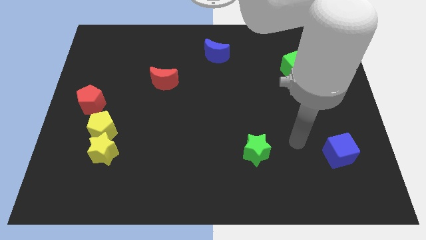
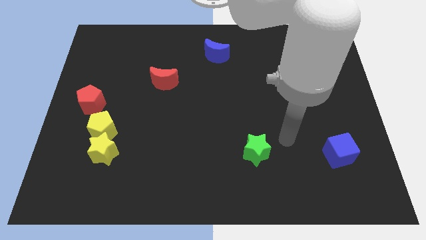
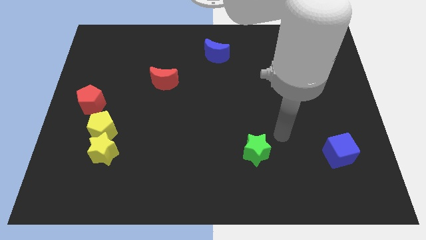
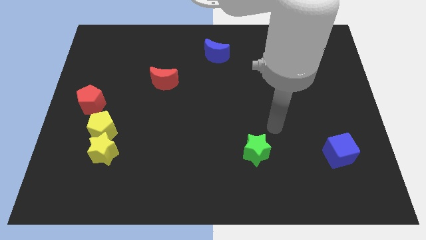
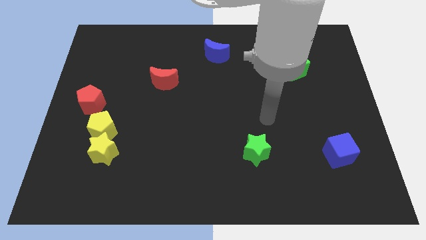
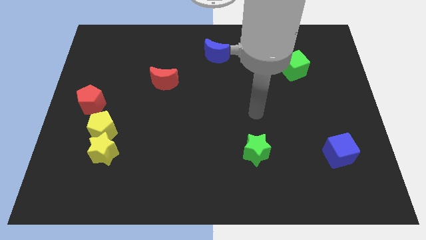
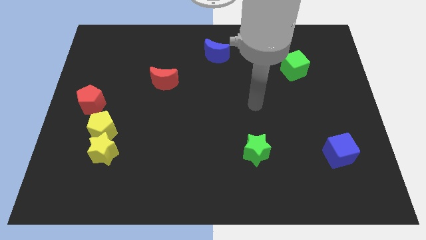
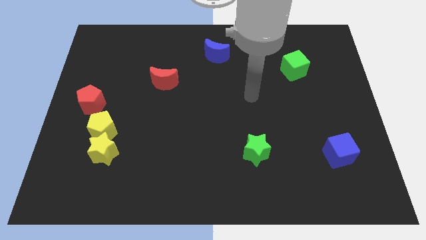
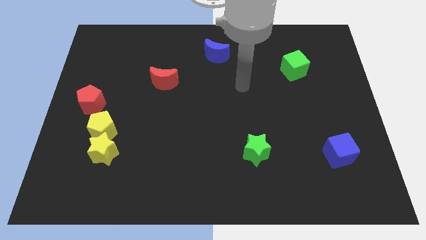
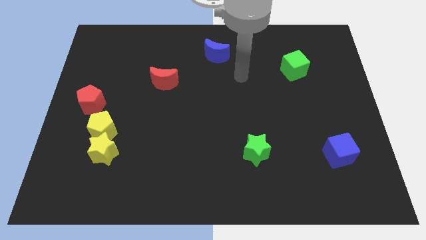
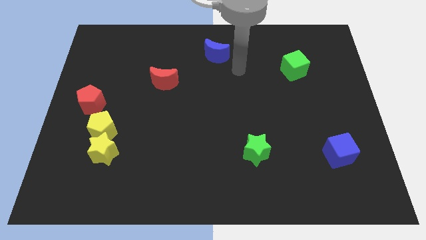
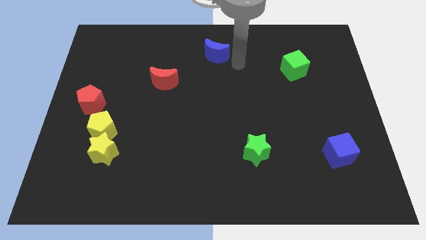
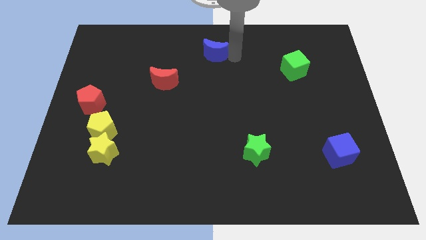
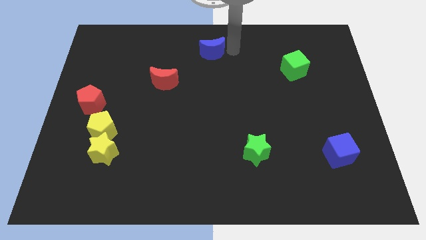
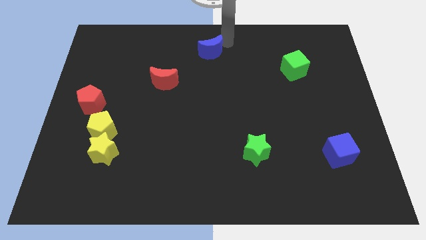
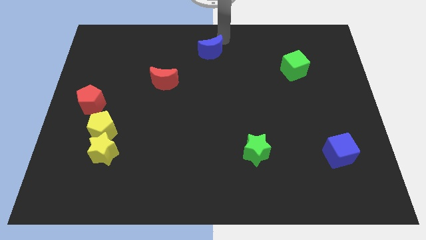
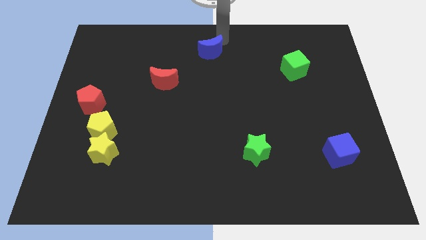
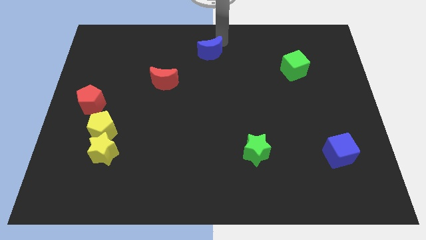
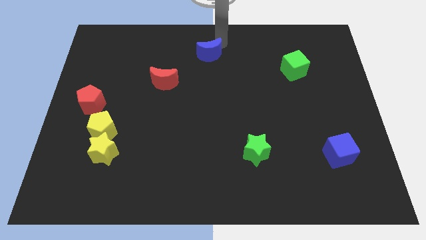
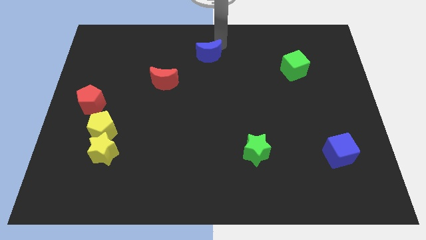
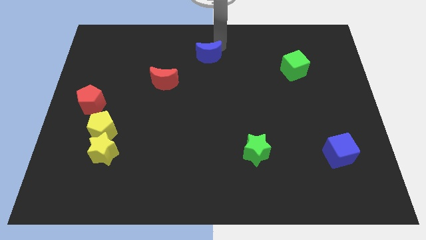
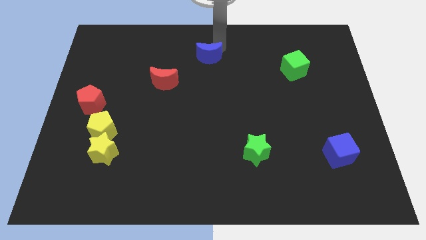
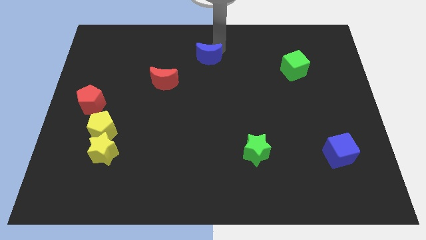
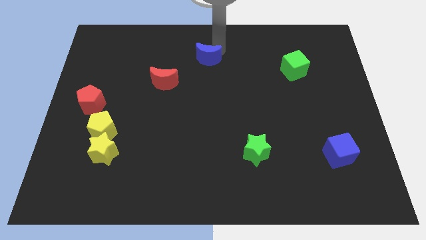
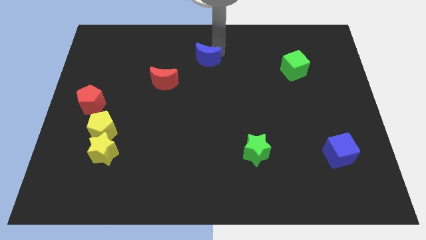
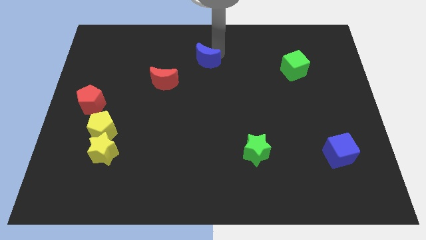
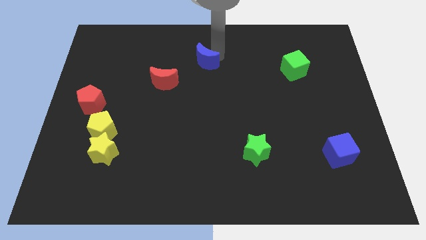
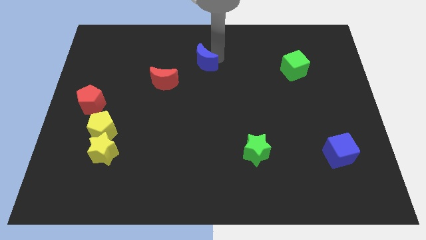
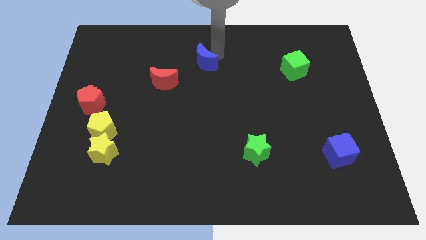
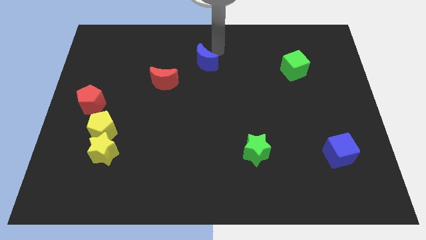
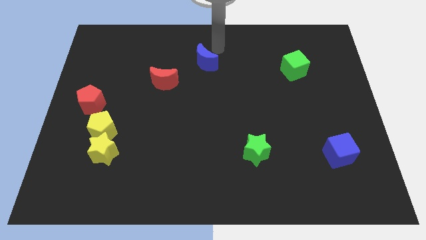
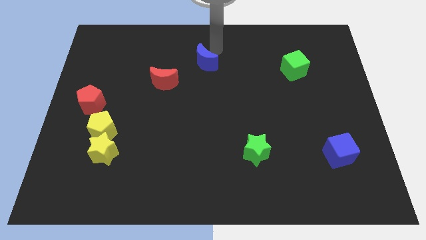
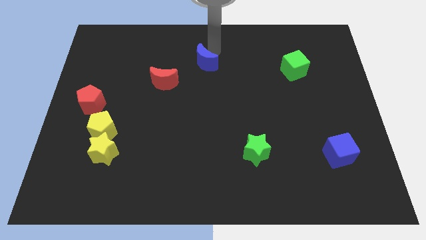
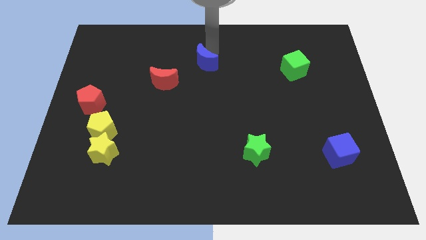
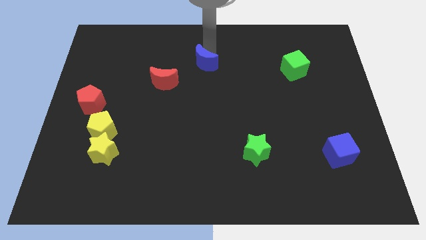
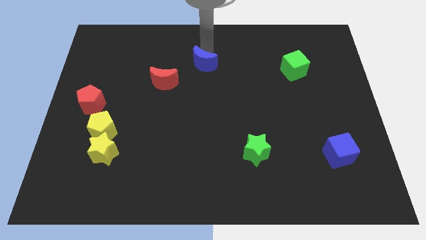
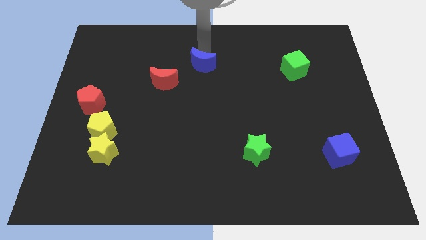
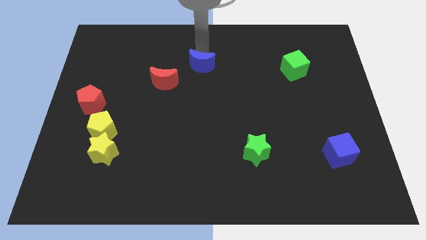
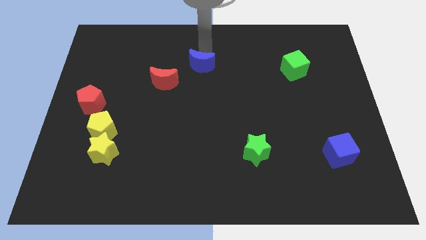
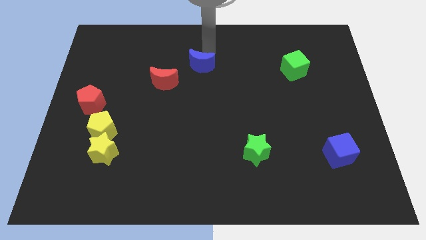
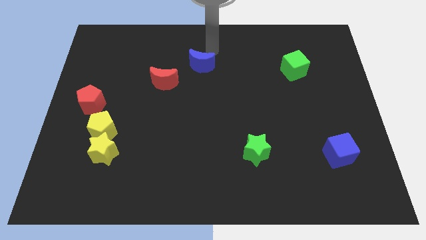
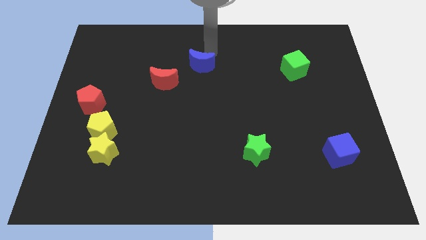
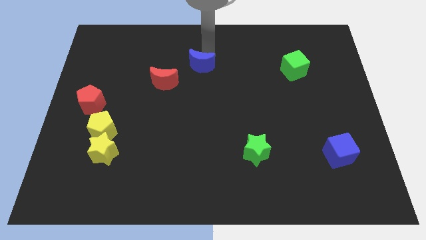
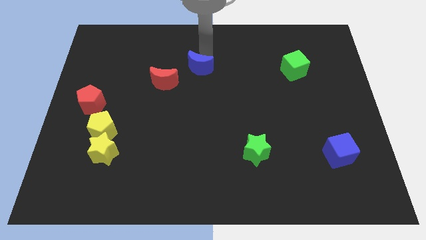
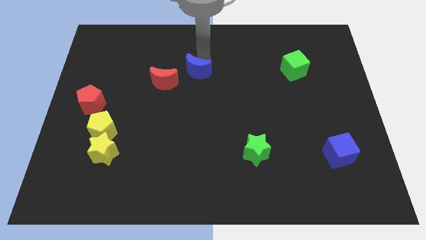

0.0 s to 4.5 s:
push the blue moon slightly diagonally downwards and left

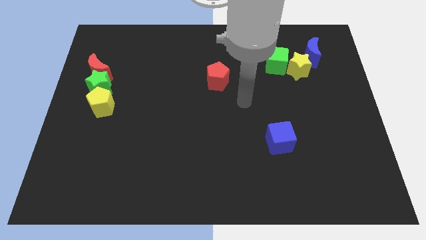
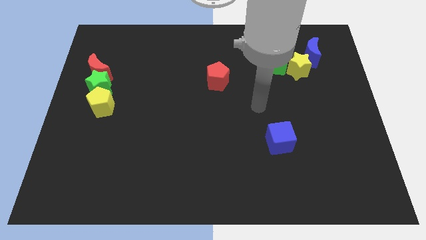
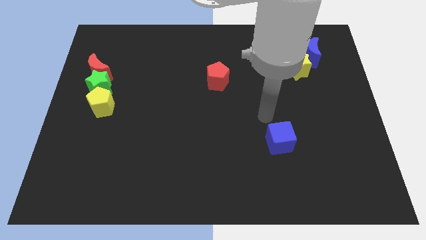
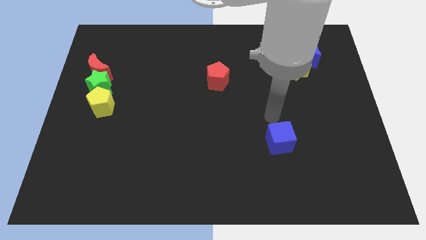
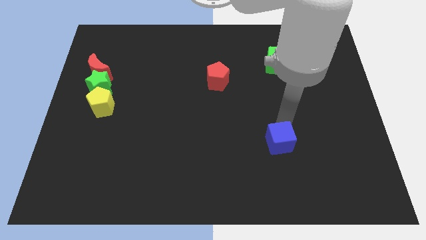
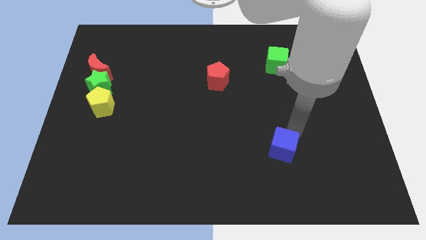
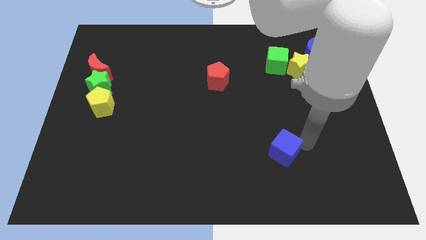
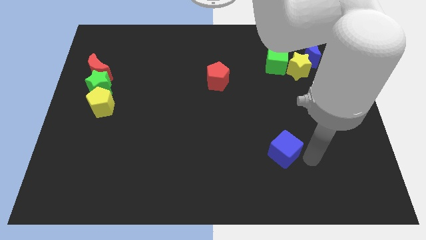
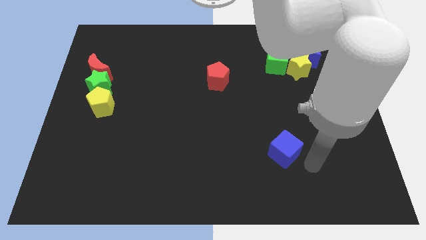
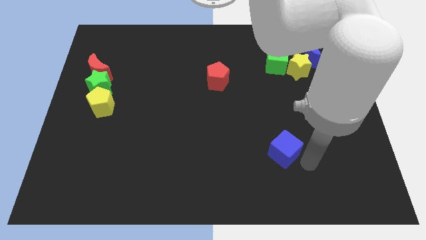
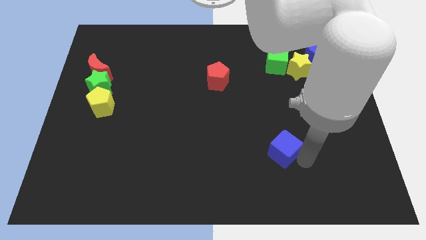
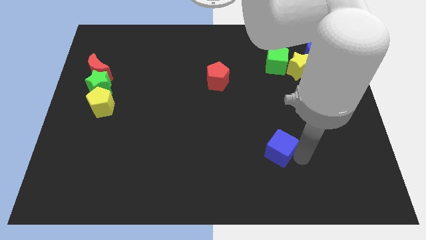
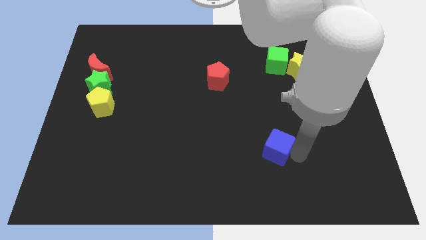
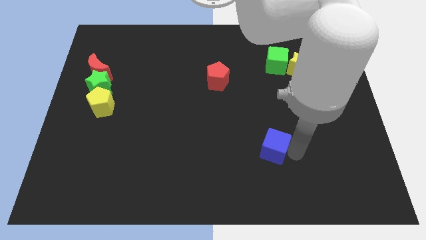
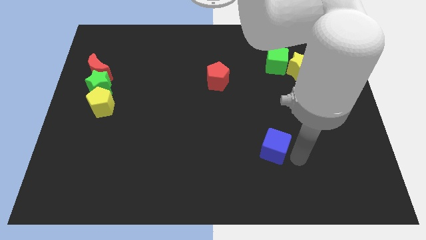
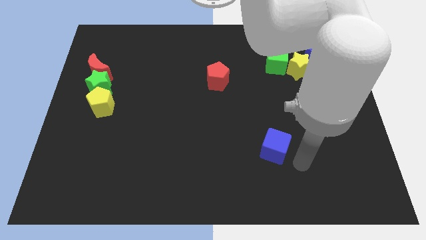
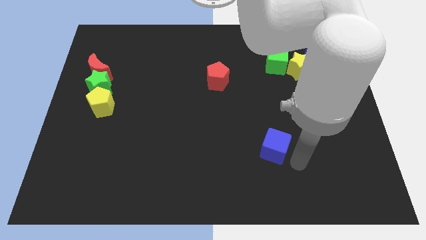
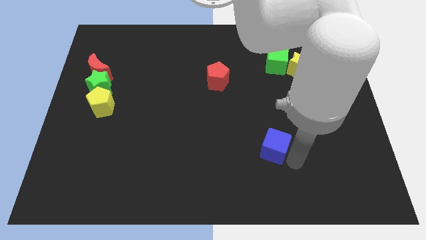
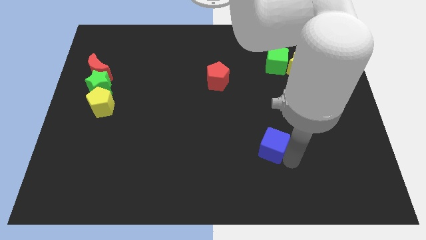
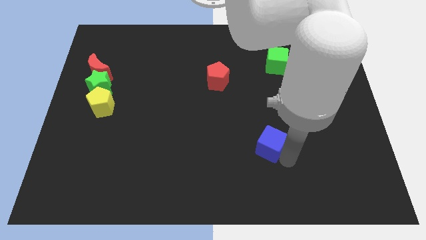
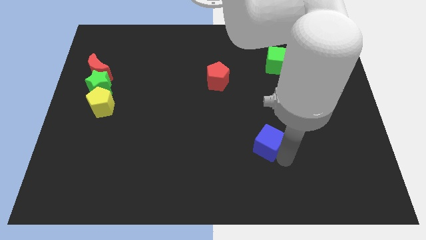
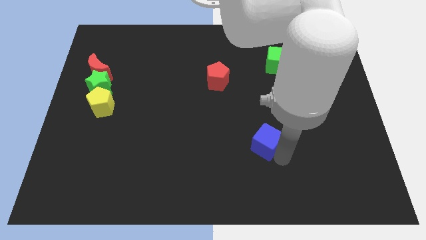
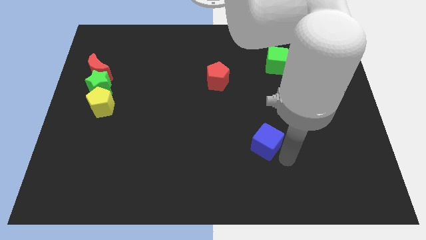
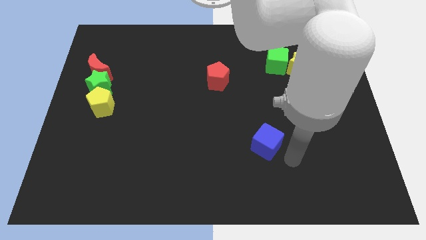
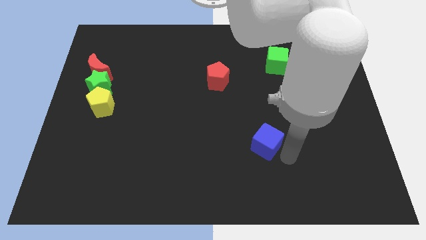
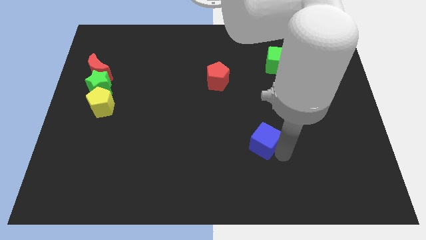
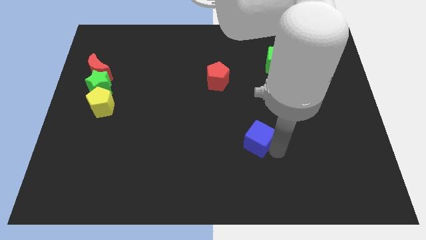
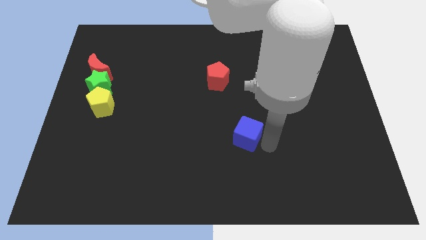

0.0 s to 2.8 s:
slightly push the blue cube left

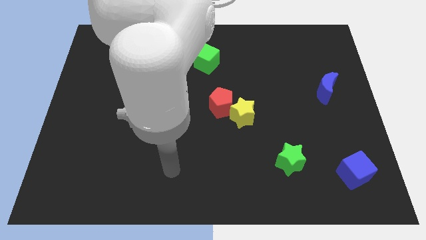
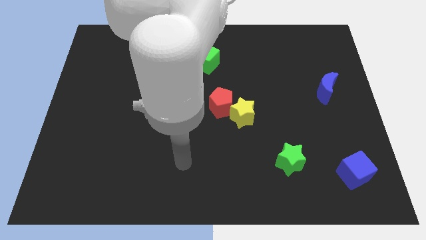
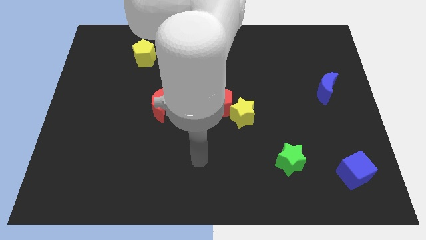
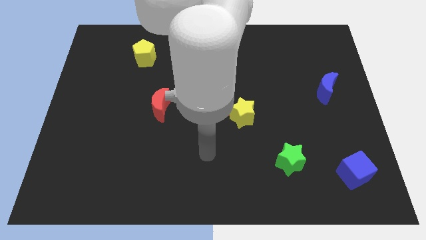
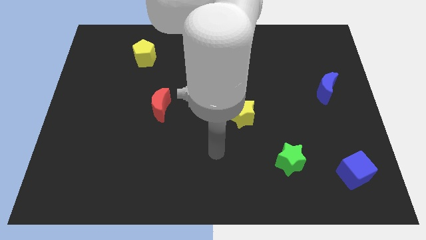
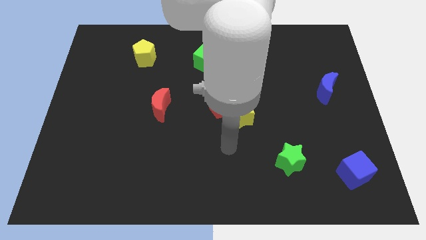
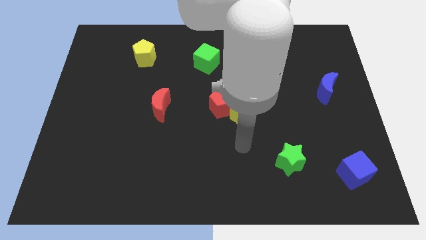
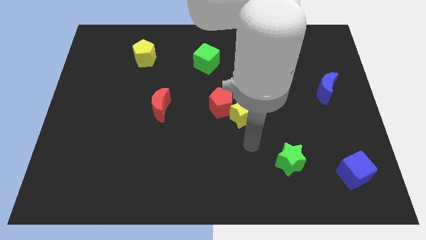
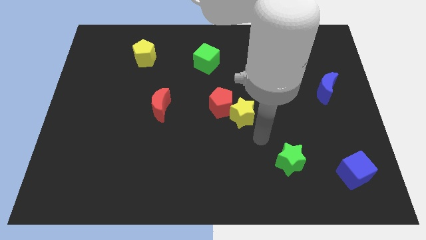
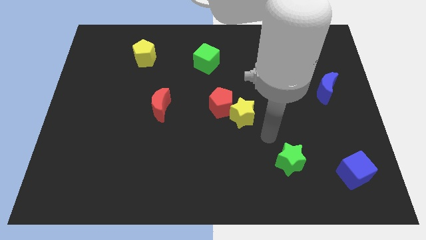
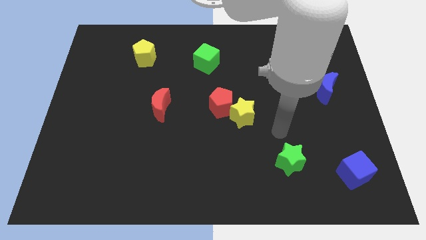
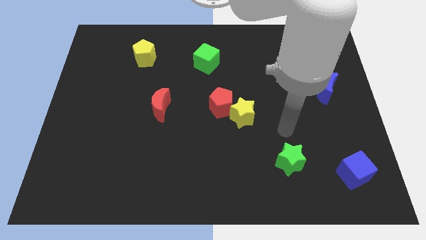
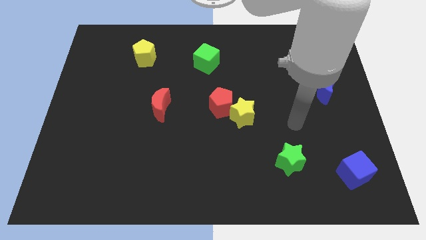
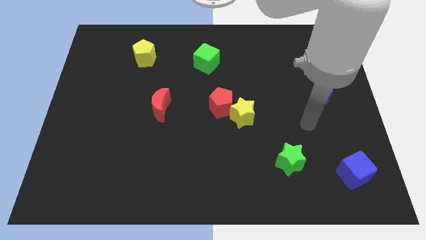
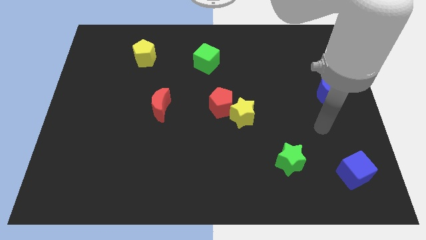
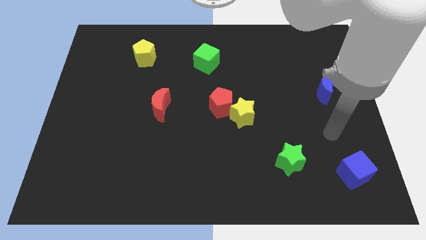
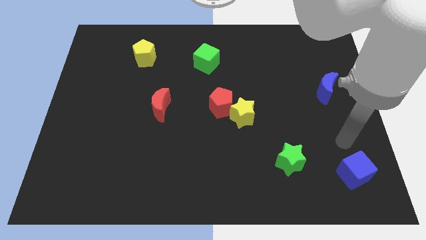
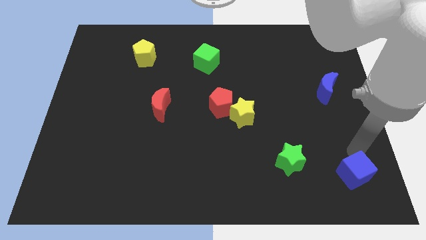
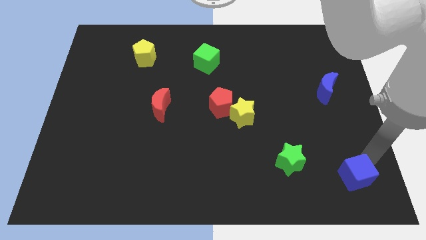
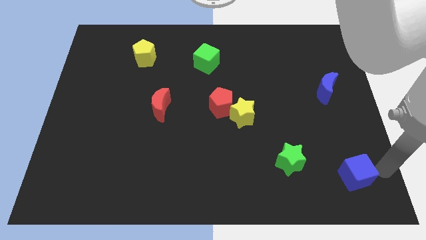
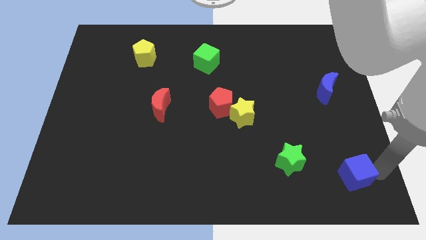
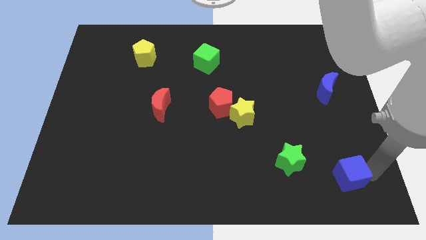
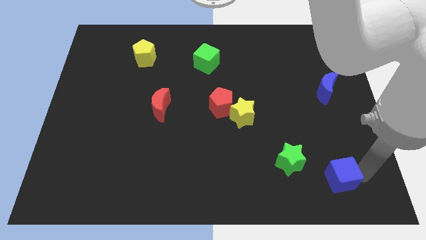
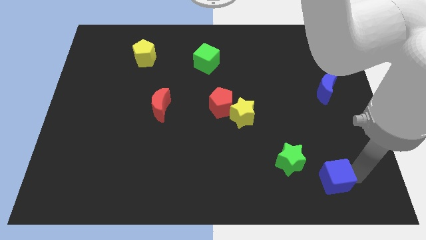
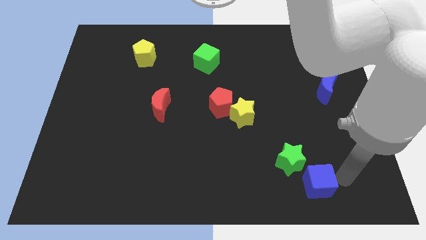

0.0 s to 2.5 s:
push the blue cube left somewhat
